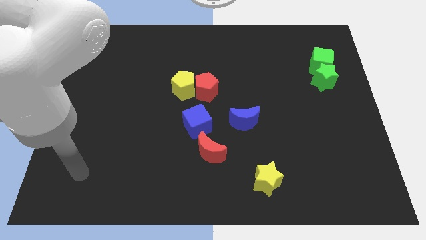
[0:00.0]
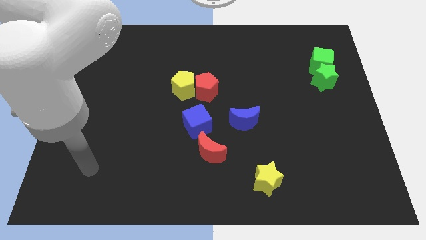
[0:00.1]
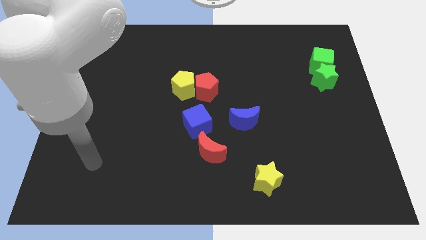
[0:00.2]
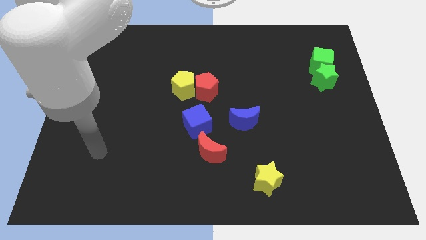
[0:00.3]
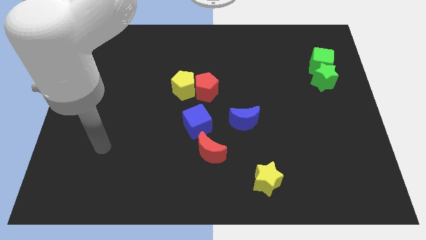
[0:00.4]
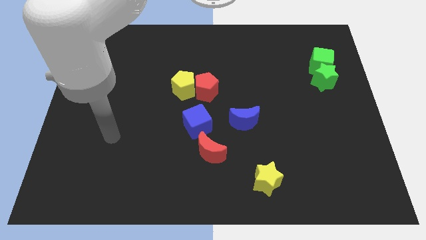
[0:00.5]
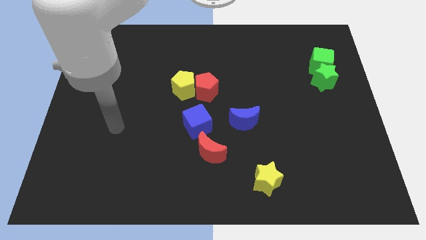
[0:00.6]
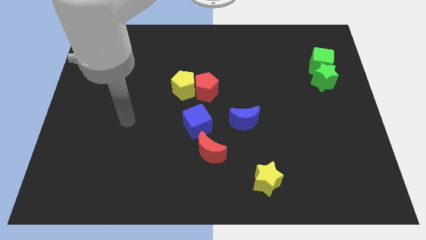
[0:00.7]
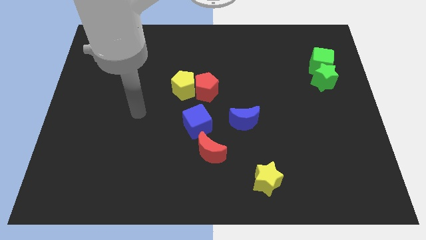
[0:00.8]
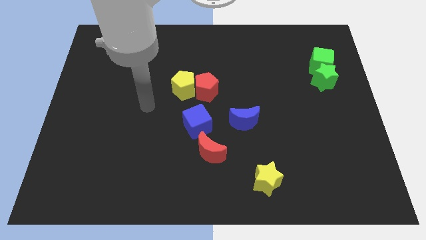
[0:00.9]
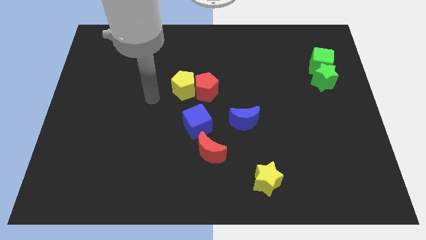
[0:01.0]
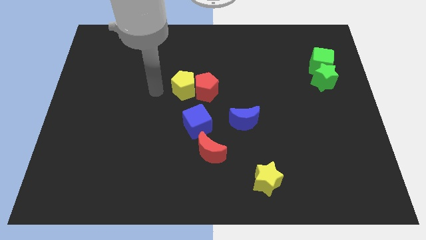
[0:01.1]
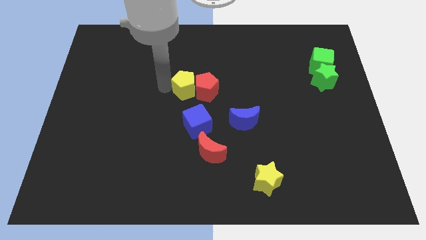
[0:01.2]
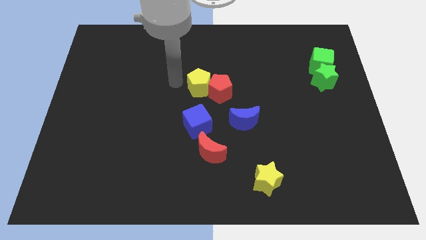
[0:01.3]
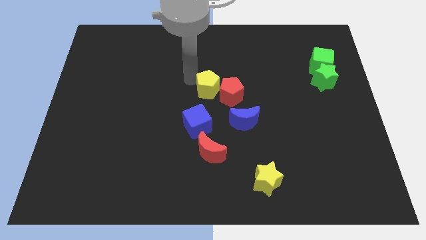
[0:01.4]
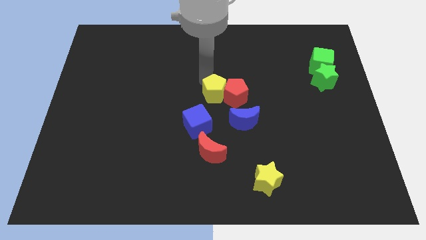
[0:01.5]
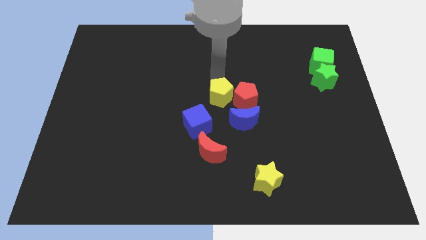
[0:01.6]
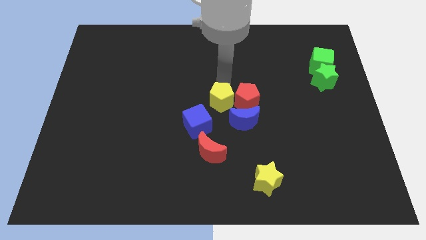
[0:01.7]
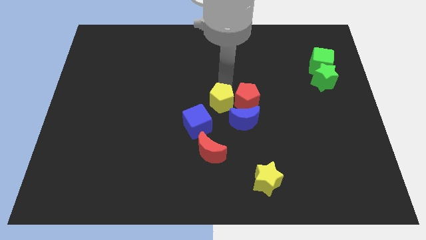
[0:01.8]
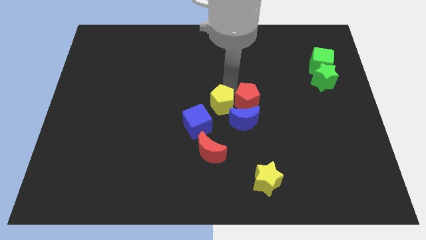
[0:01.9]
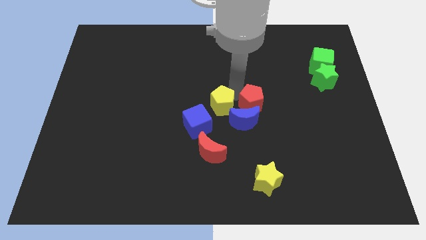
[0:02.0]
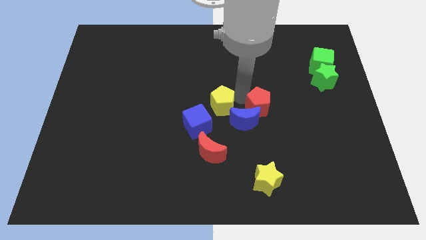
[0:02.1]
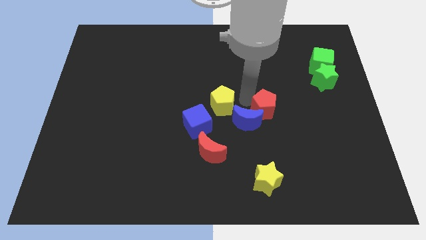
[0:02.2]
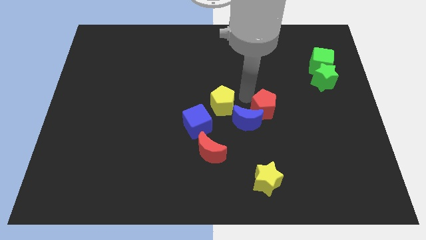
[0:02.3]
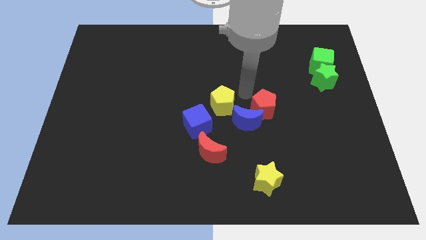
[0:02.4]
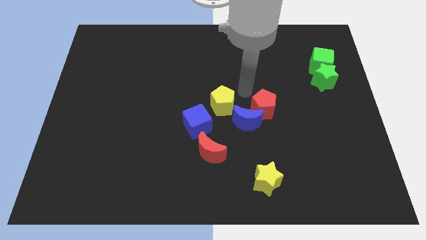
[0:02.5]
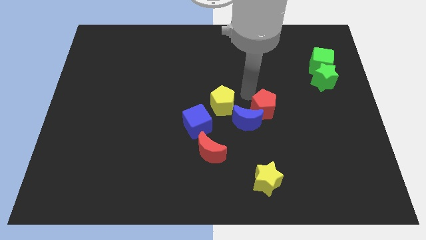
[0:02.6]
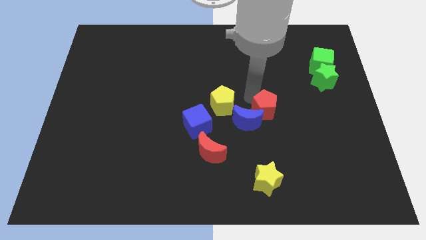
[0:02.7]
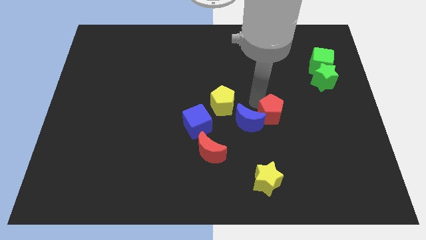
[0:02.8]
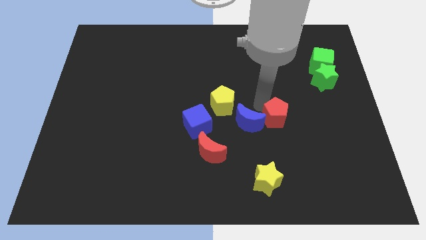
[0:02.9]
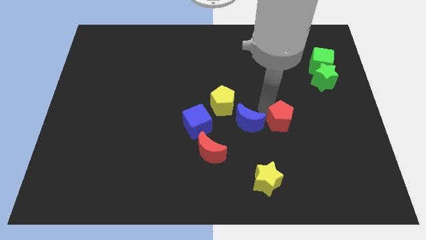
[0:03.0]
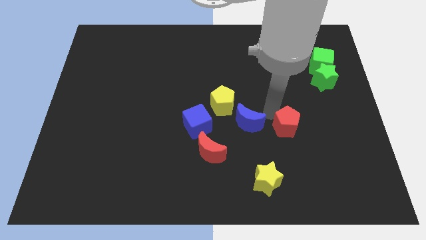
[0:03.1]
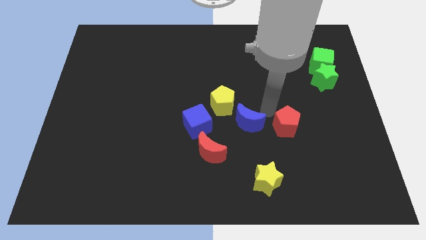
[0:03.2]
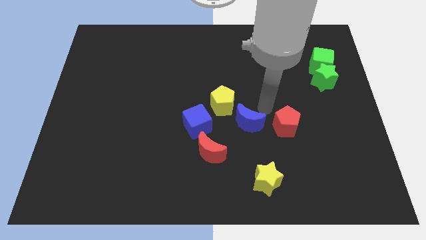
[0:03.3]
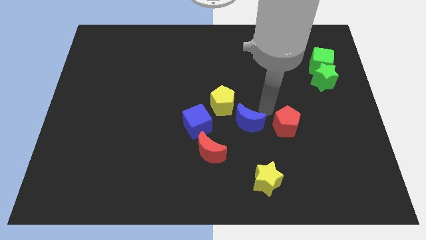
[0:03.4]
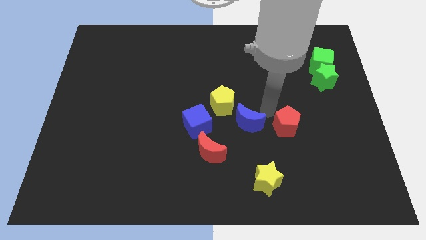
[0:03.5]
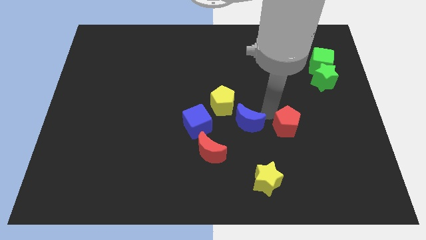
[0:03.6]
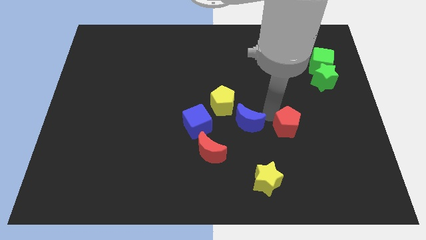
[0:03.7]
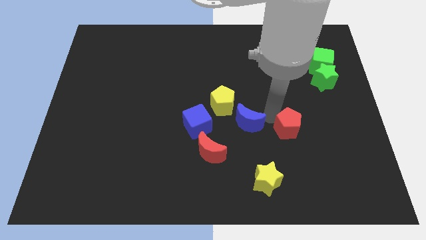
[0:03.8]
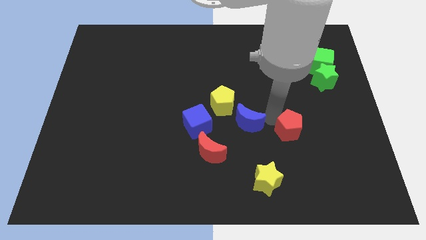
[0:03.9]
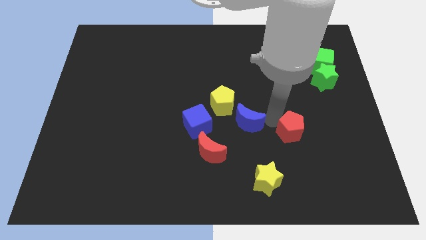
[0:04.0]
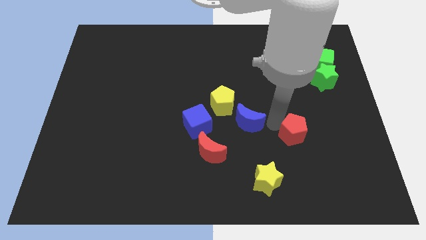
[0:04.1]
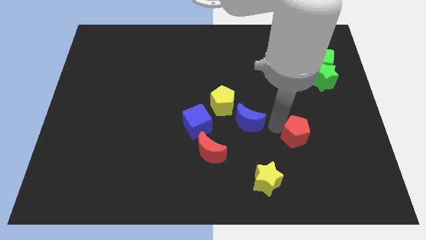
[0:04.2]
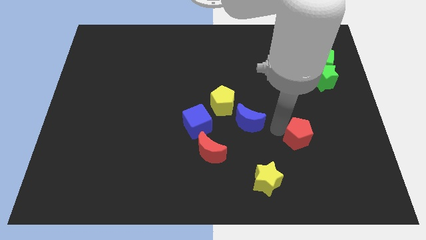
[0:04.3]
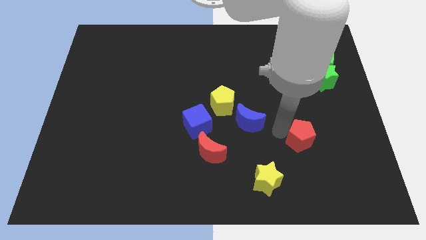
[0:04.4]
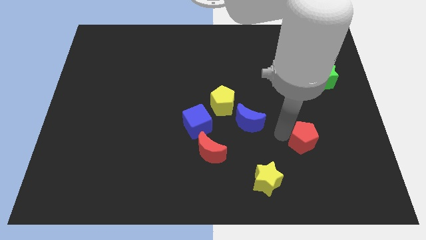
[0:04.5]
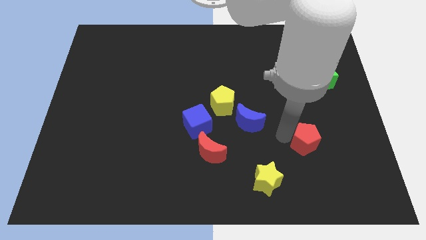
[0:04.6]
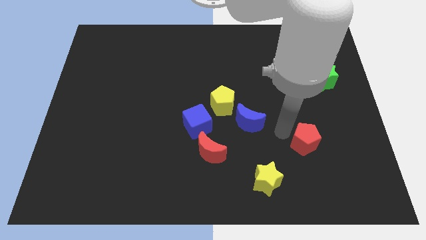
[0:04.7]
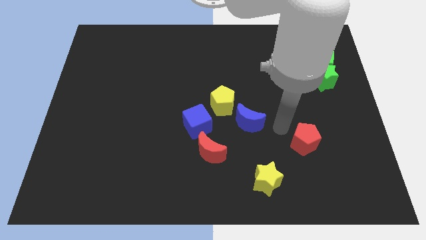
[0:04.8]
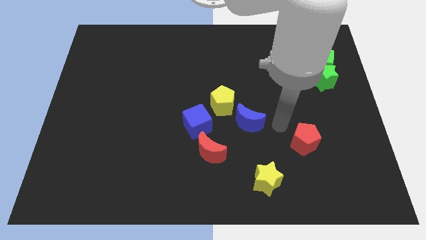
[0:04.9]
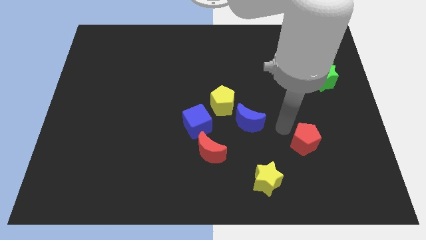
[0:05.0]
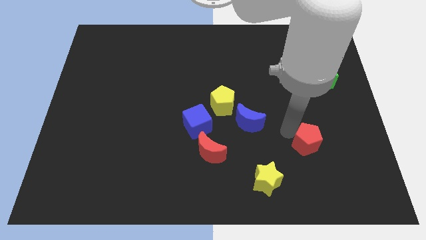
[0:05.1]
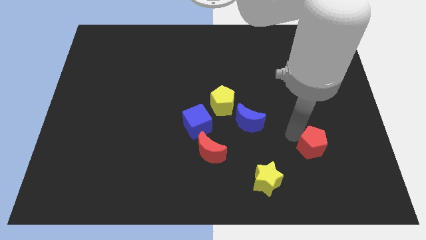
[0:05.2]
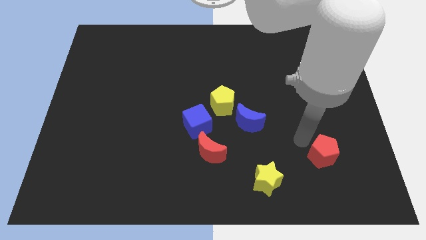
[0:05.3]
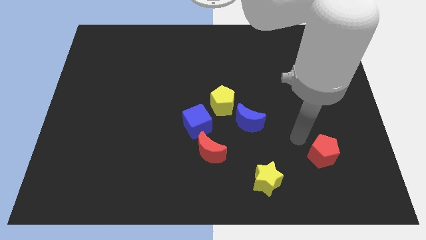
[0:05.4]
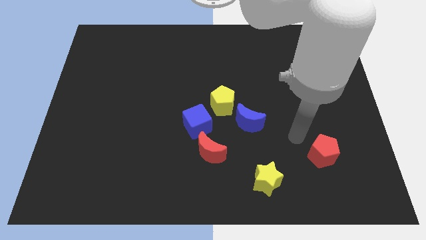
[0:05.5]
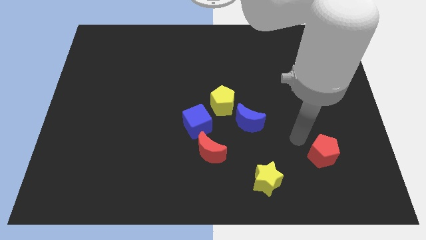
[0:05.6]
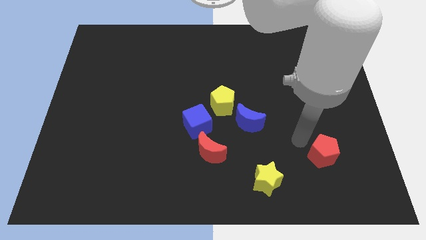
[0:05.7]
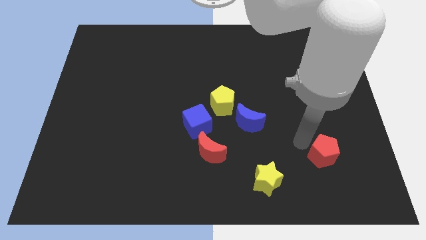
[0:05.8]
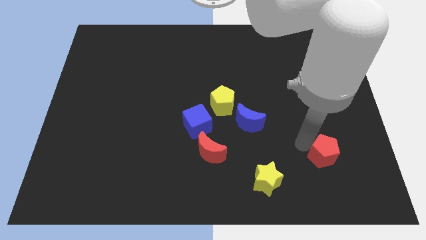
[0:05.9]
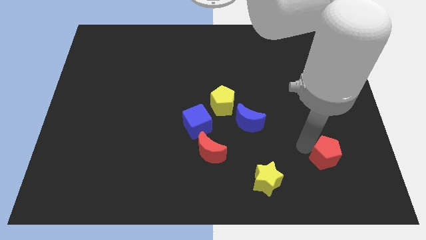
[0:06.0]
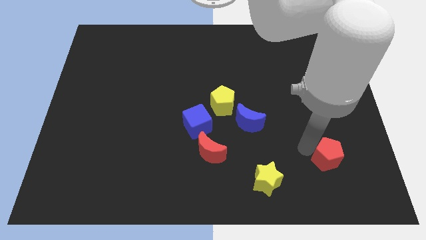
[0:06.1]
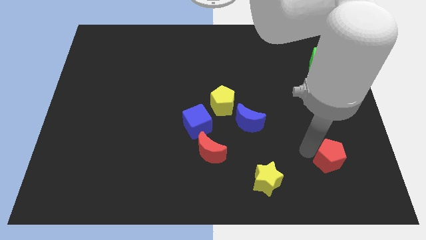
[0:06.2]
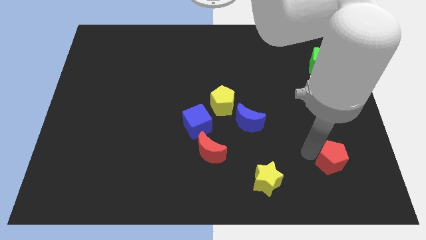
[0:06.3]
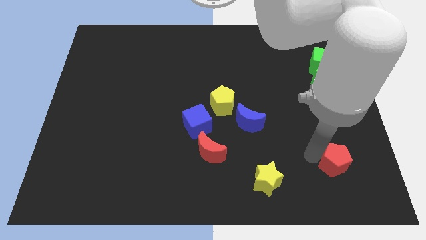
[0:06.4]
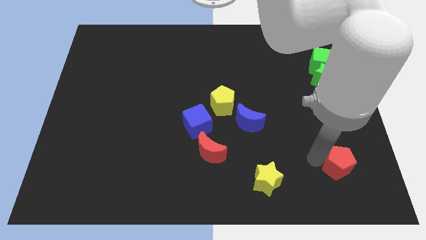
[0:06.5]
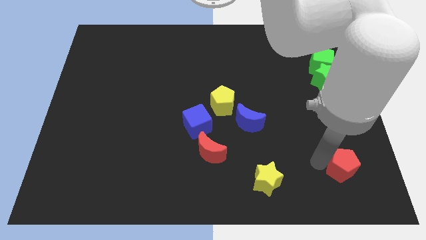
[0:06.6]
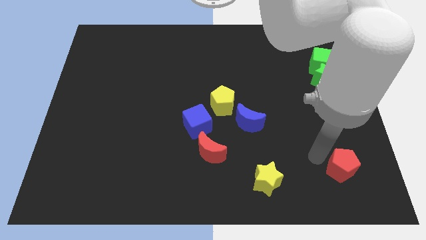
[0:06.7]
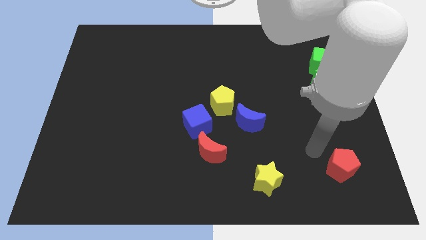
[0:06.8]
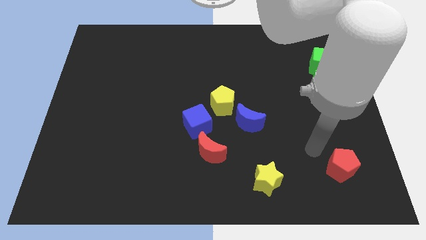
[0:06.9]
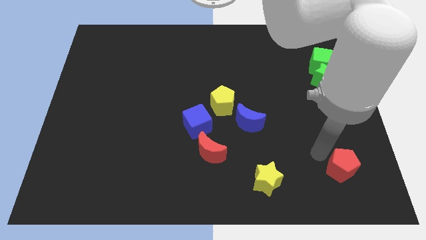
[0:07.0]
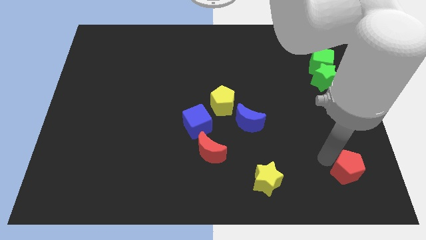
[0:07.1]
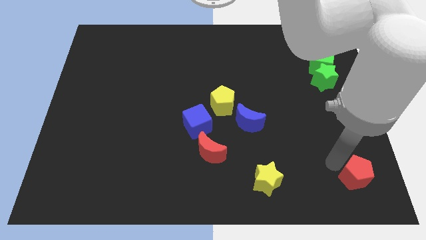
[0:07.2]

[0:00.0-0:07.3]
put the red pentagon to the bottom right
